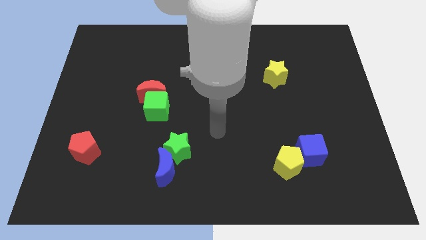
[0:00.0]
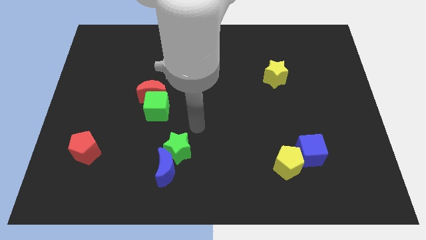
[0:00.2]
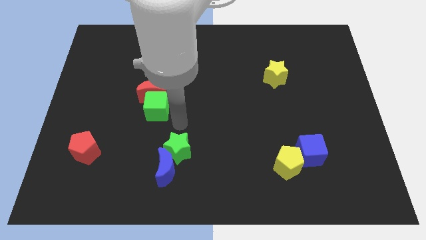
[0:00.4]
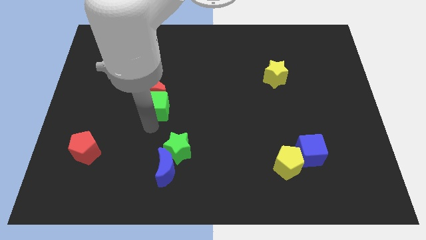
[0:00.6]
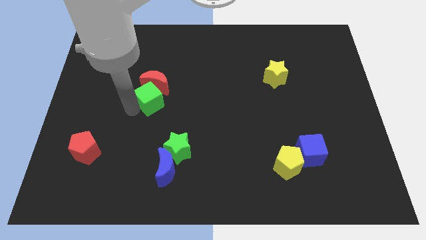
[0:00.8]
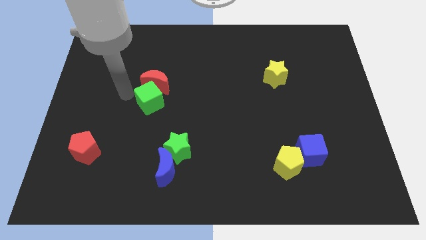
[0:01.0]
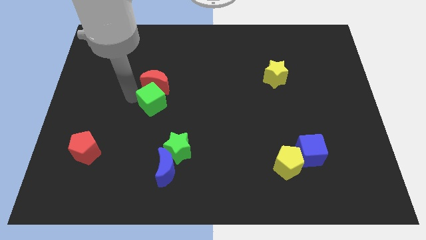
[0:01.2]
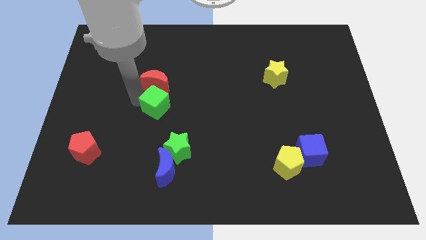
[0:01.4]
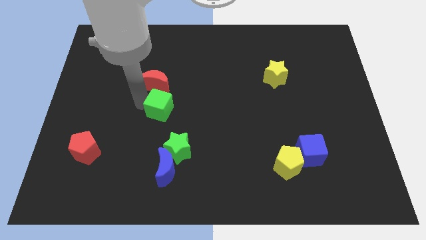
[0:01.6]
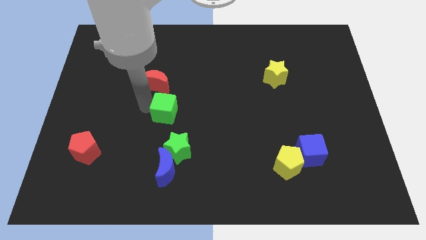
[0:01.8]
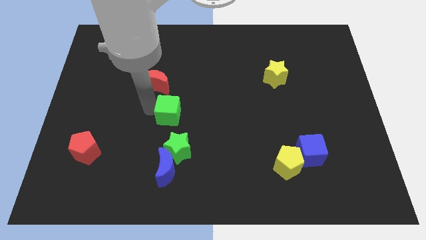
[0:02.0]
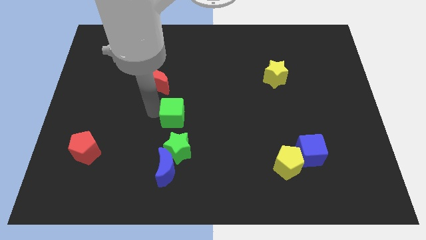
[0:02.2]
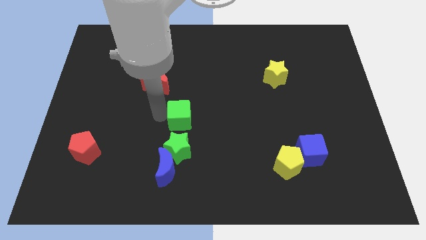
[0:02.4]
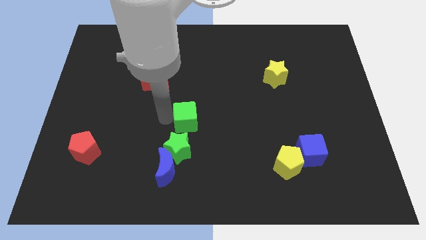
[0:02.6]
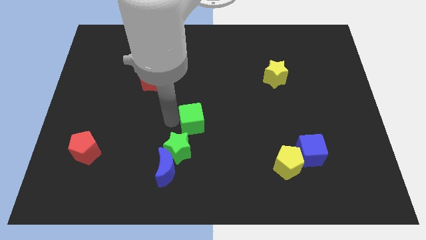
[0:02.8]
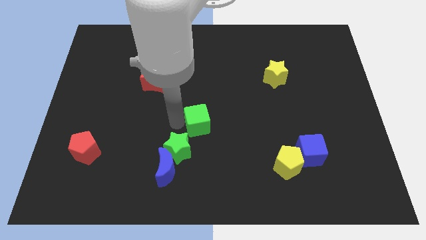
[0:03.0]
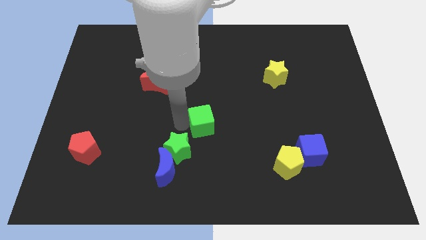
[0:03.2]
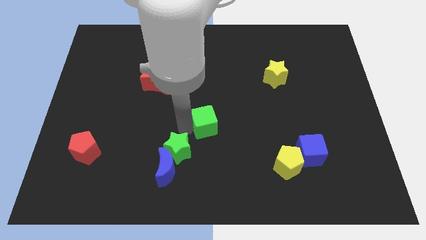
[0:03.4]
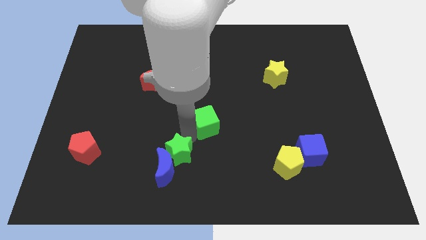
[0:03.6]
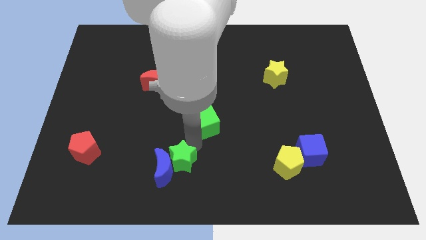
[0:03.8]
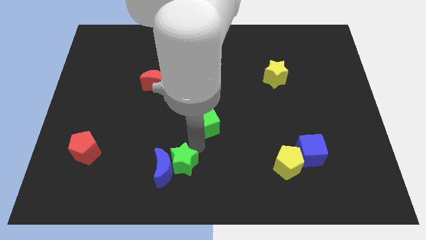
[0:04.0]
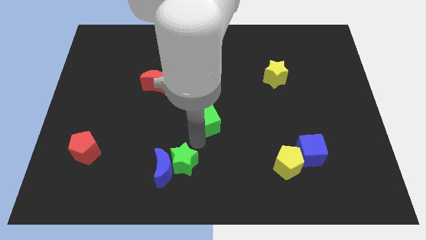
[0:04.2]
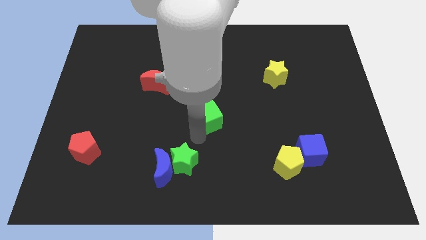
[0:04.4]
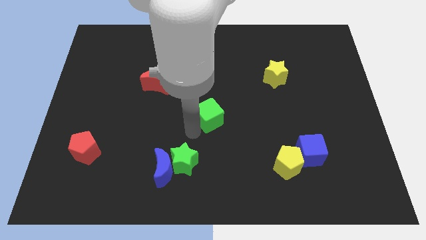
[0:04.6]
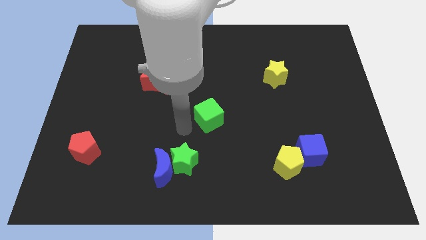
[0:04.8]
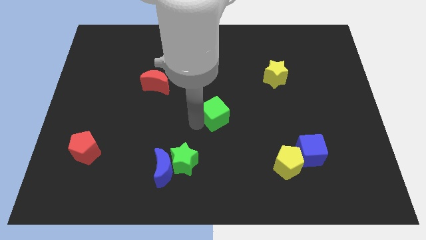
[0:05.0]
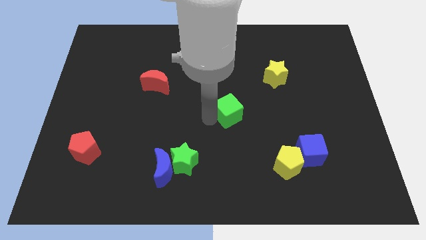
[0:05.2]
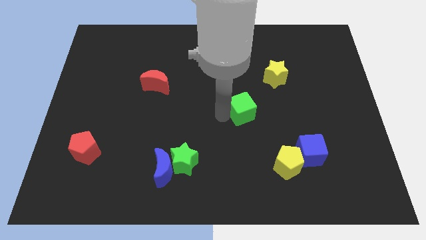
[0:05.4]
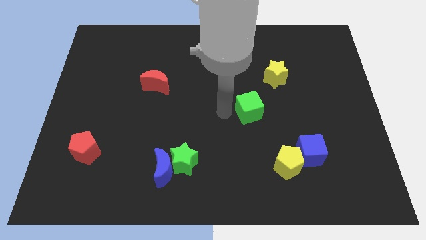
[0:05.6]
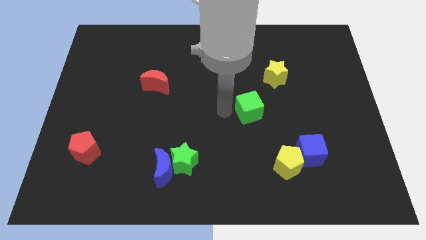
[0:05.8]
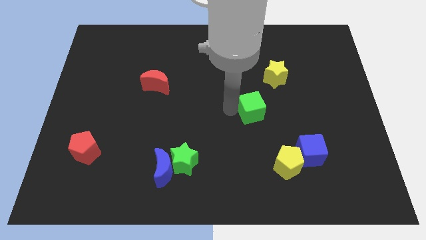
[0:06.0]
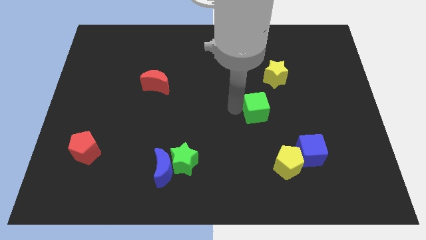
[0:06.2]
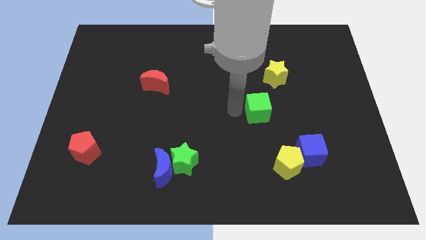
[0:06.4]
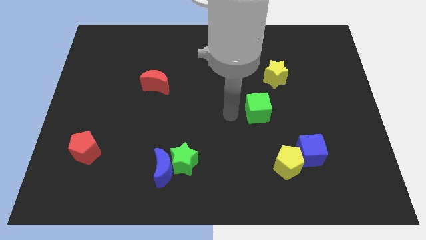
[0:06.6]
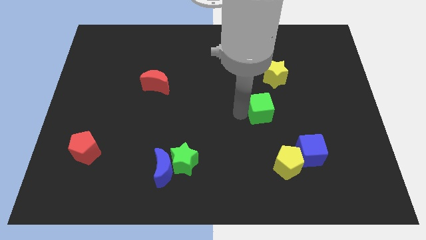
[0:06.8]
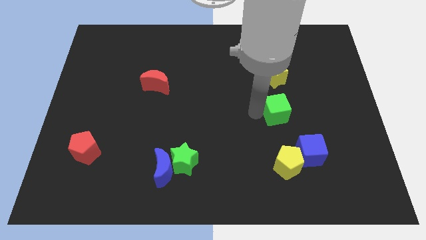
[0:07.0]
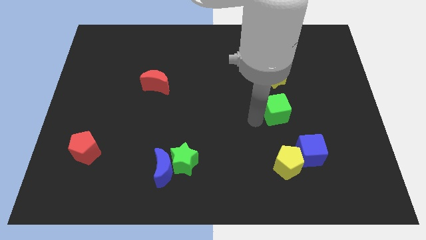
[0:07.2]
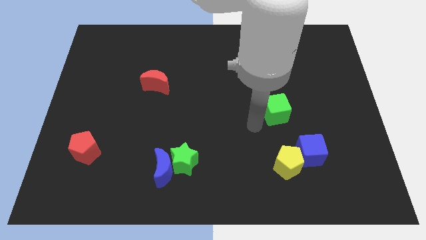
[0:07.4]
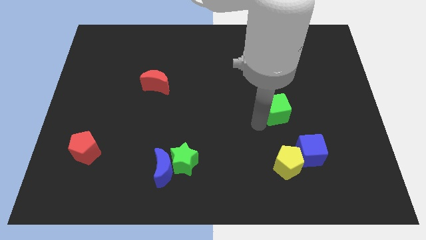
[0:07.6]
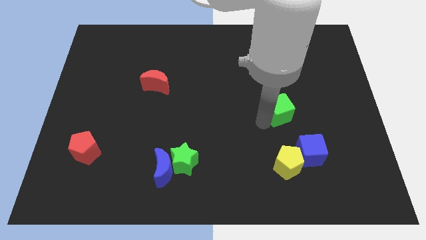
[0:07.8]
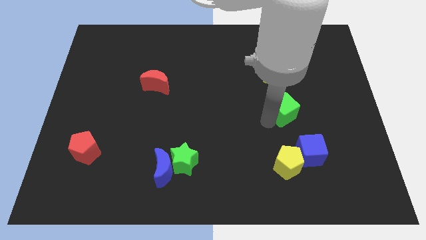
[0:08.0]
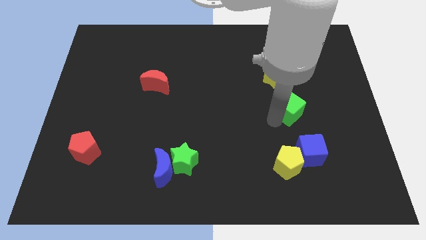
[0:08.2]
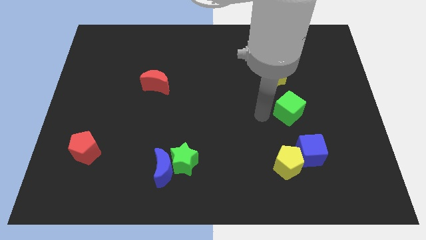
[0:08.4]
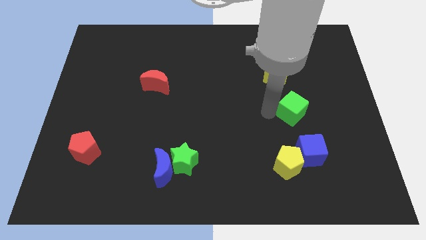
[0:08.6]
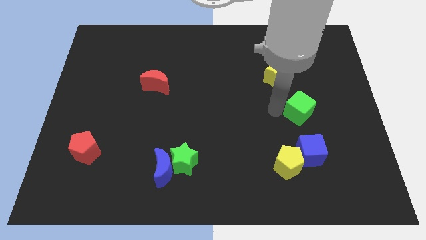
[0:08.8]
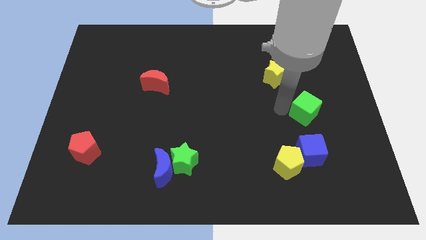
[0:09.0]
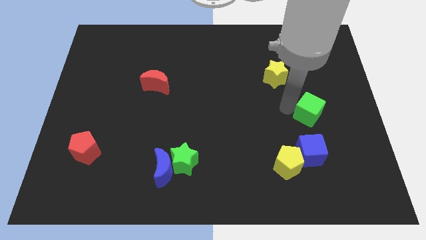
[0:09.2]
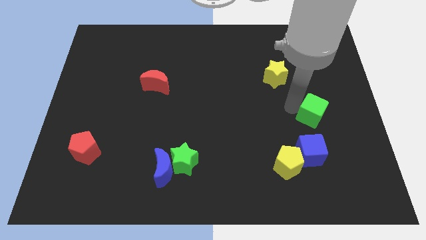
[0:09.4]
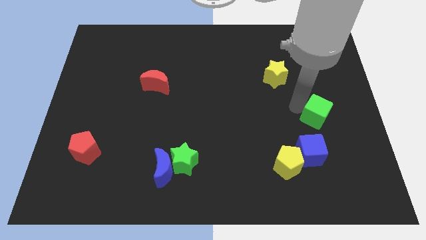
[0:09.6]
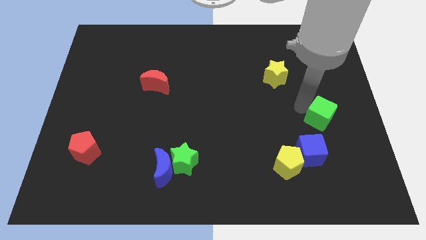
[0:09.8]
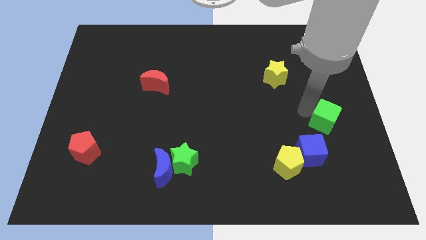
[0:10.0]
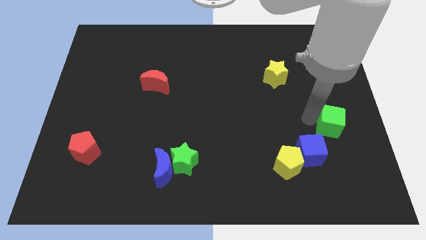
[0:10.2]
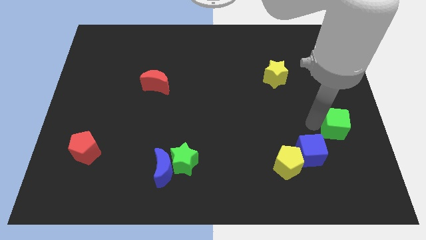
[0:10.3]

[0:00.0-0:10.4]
slide the green cube to the right side of the board
